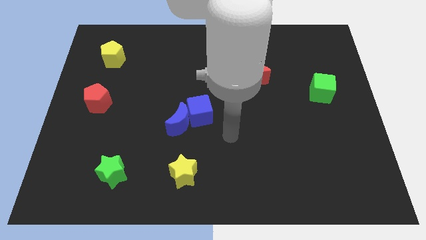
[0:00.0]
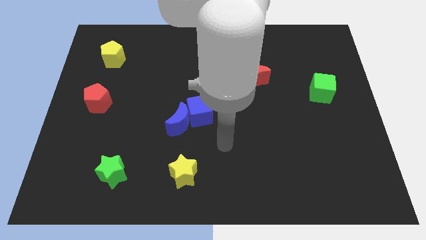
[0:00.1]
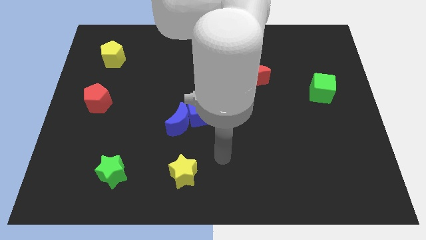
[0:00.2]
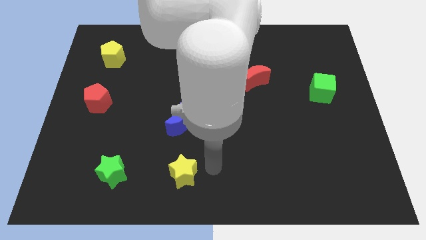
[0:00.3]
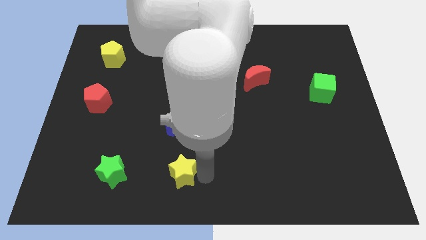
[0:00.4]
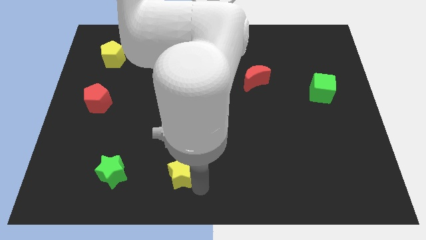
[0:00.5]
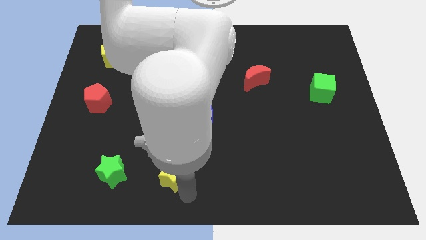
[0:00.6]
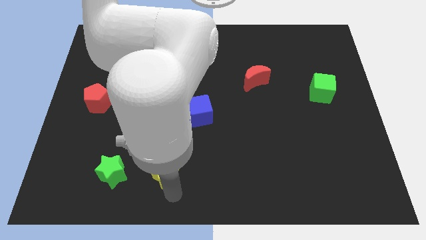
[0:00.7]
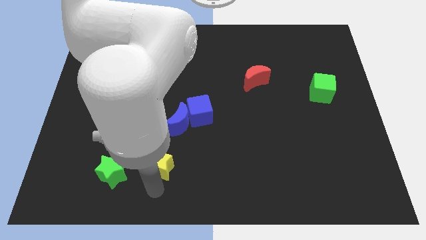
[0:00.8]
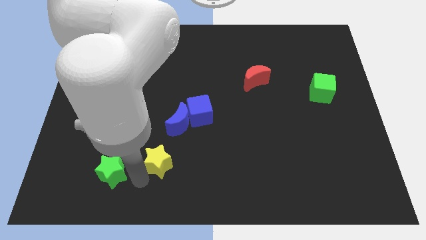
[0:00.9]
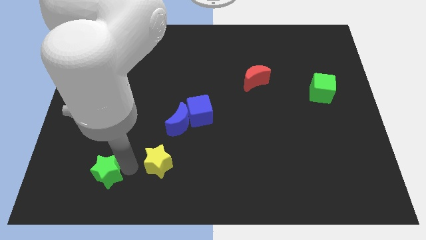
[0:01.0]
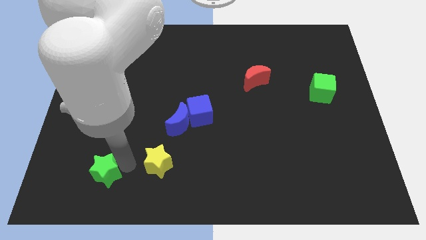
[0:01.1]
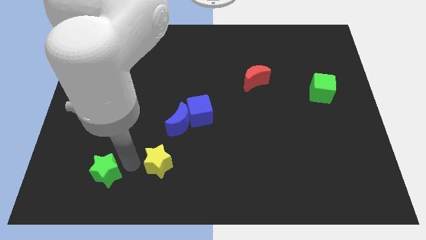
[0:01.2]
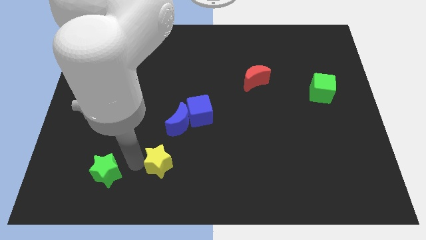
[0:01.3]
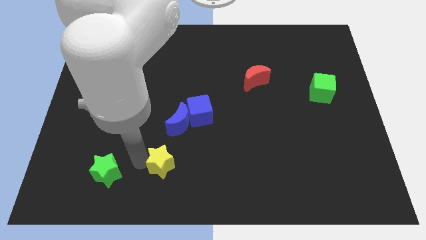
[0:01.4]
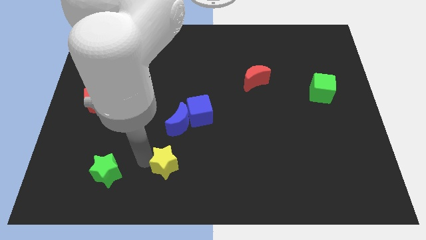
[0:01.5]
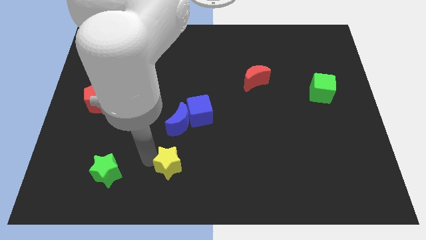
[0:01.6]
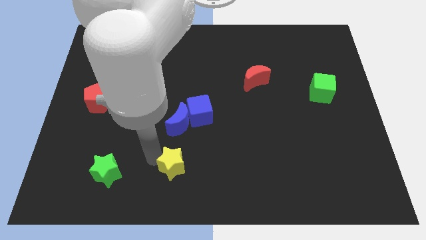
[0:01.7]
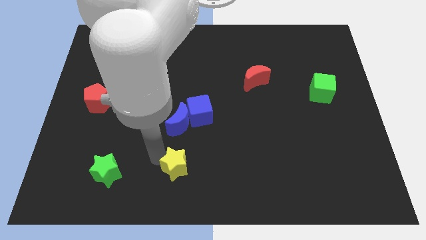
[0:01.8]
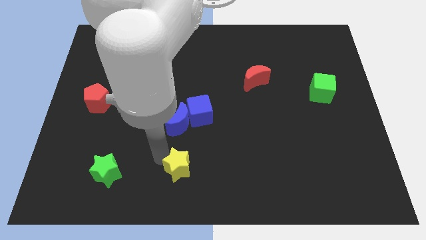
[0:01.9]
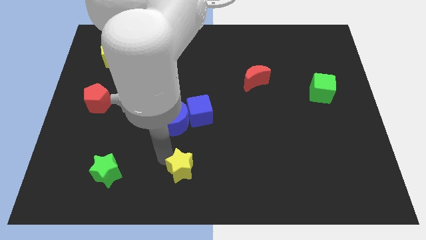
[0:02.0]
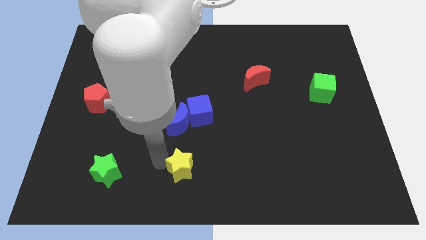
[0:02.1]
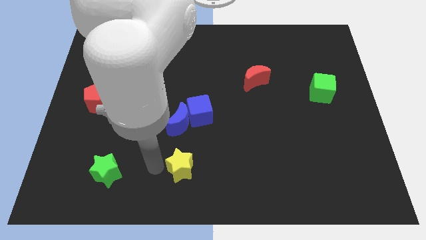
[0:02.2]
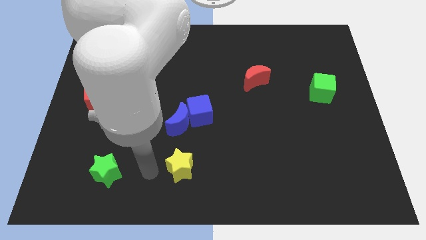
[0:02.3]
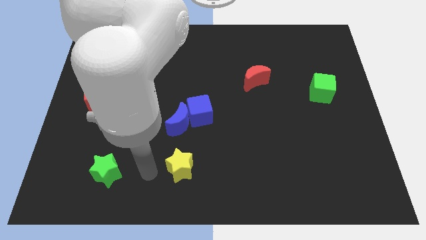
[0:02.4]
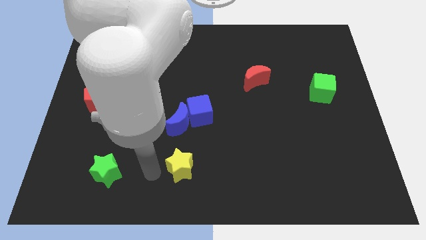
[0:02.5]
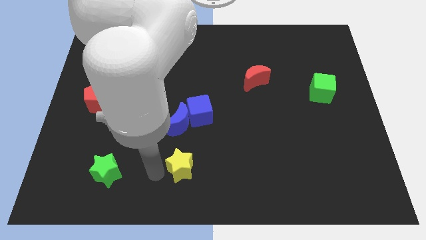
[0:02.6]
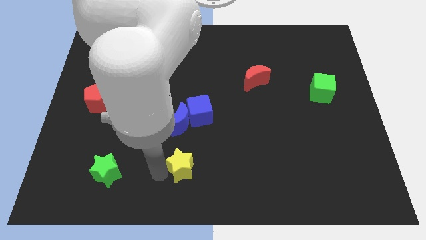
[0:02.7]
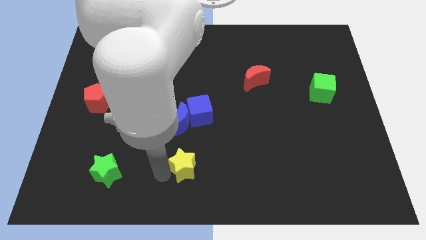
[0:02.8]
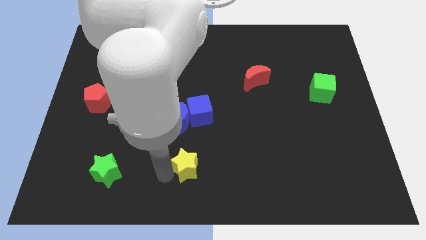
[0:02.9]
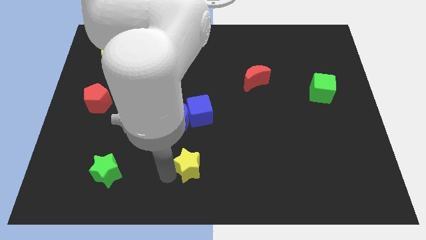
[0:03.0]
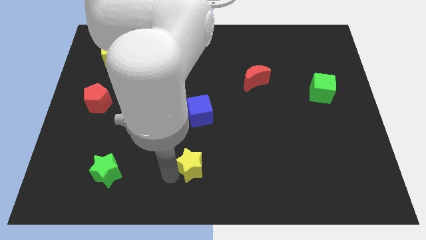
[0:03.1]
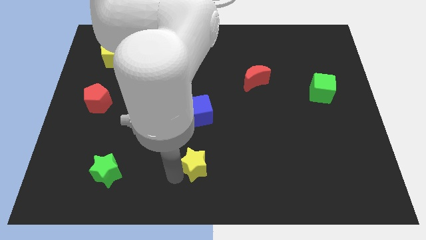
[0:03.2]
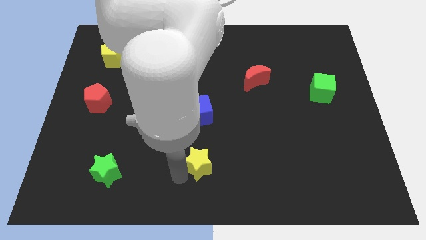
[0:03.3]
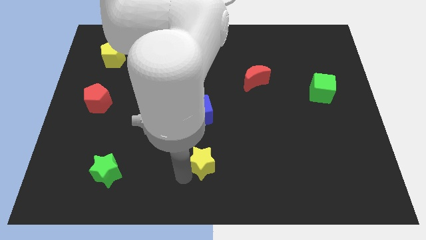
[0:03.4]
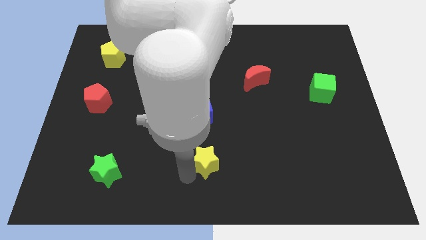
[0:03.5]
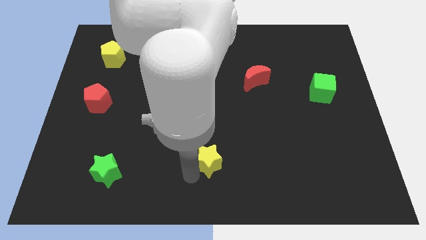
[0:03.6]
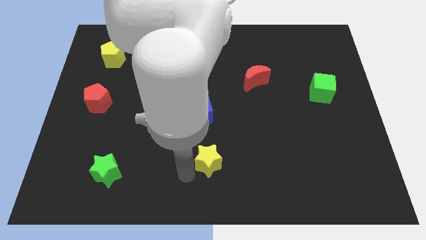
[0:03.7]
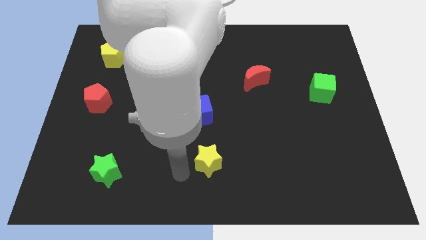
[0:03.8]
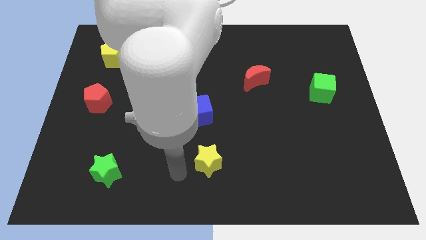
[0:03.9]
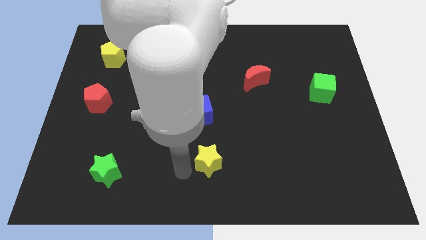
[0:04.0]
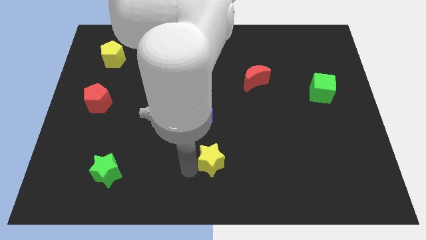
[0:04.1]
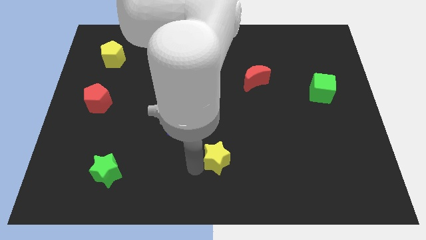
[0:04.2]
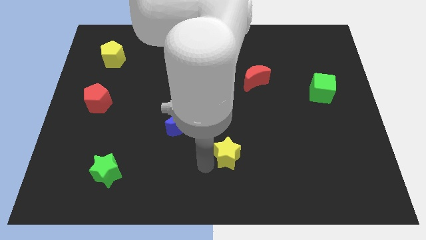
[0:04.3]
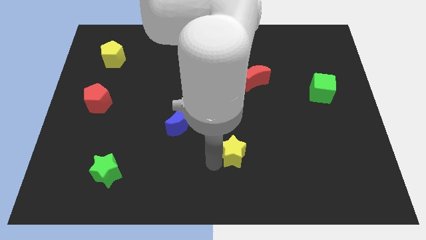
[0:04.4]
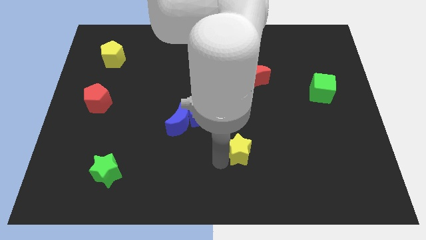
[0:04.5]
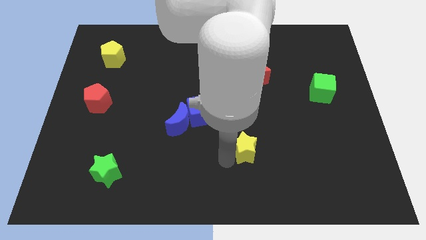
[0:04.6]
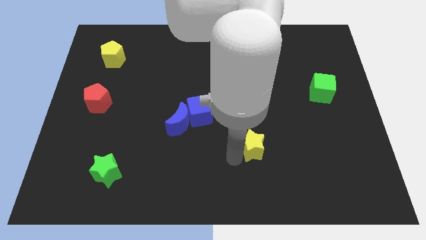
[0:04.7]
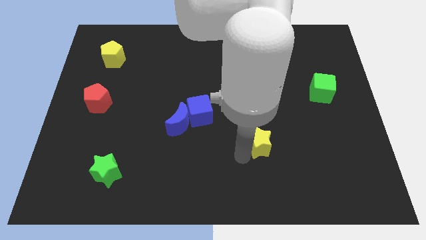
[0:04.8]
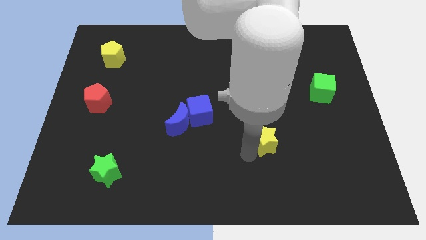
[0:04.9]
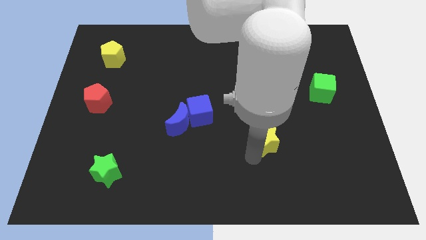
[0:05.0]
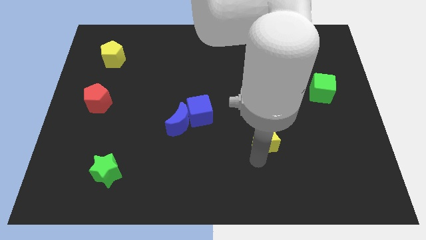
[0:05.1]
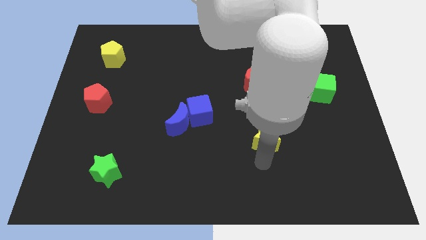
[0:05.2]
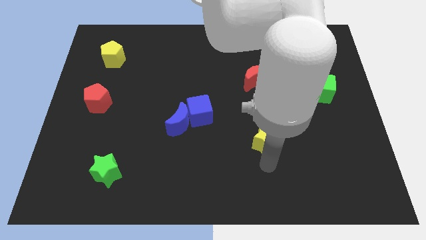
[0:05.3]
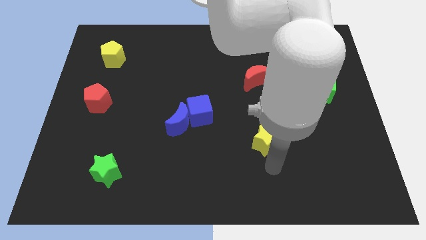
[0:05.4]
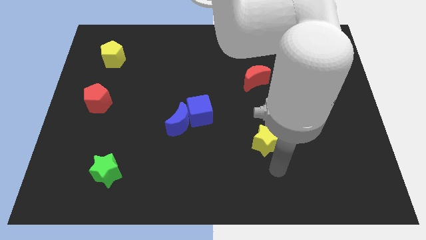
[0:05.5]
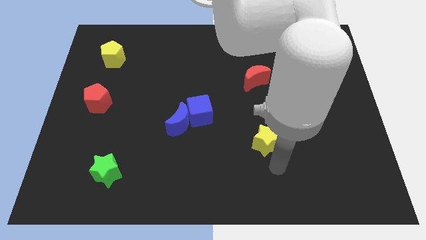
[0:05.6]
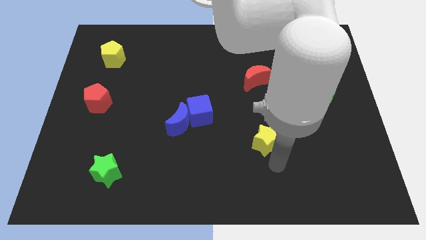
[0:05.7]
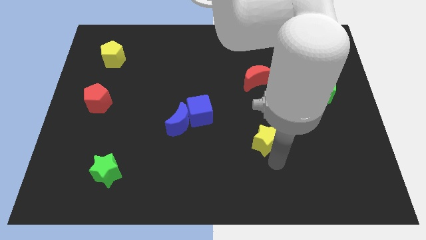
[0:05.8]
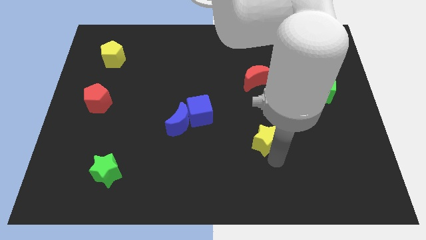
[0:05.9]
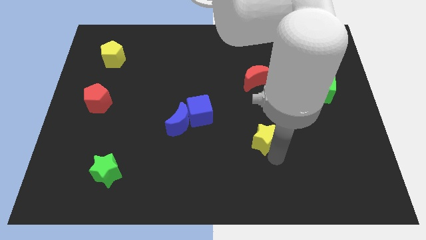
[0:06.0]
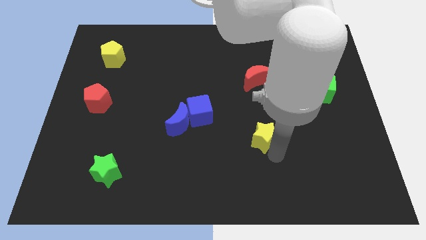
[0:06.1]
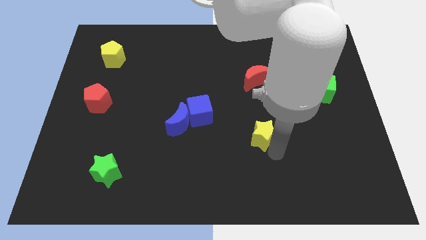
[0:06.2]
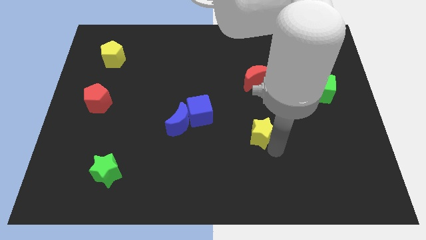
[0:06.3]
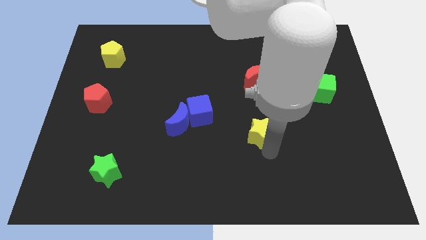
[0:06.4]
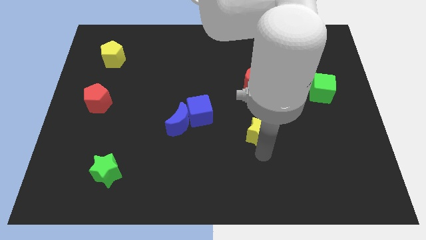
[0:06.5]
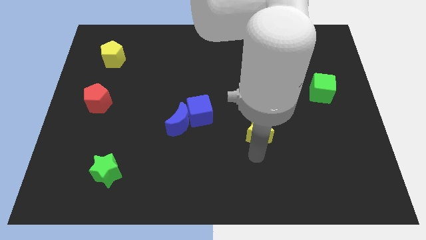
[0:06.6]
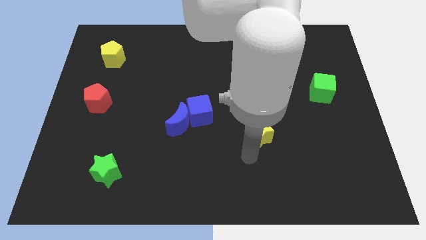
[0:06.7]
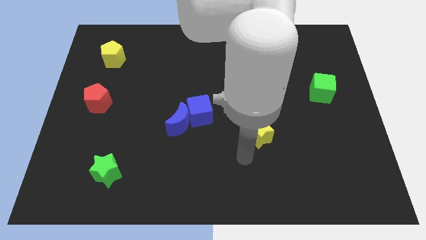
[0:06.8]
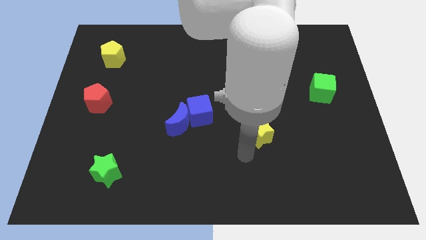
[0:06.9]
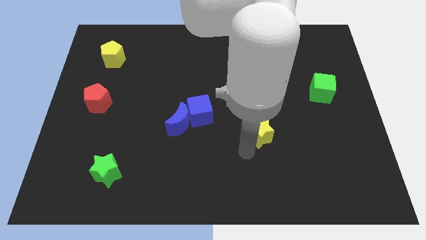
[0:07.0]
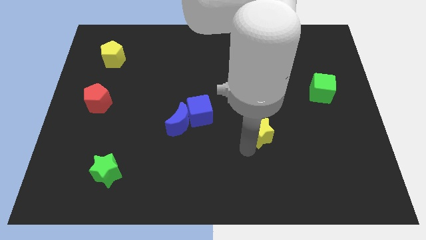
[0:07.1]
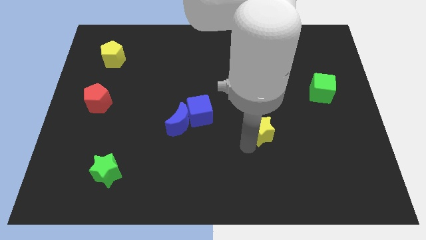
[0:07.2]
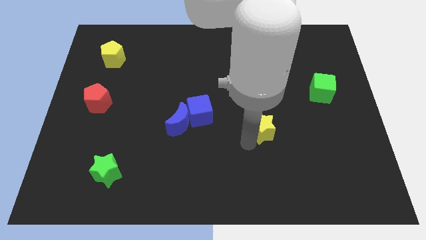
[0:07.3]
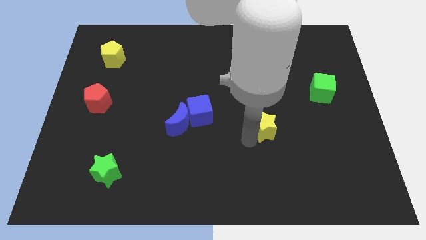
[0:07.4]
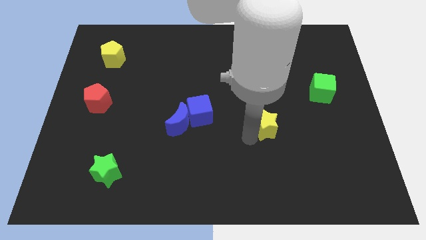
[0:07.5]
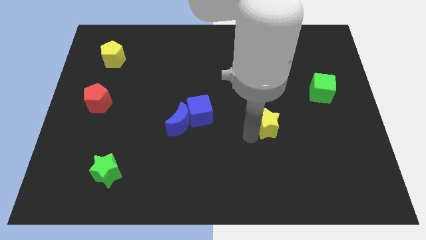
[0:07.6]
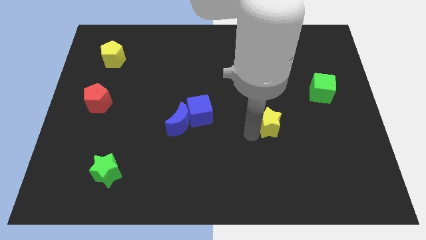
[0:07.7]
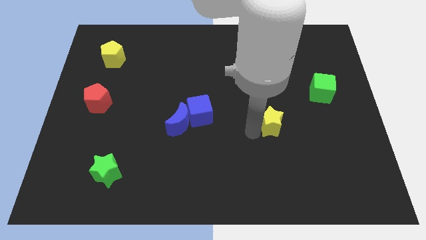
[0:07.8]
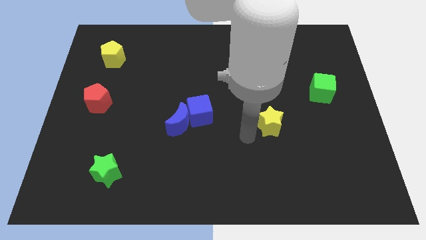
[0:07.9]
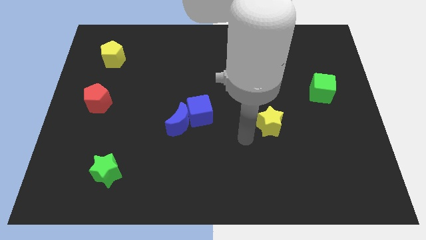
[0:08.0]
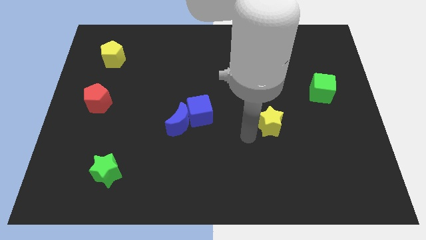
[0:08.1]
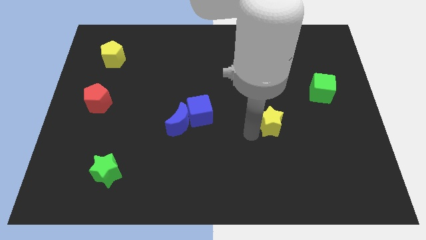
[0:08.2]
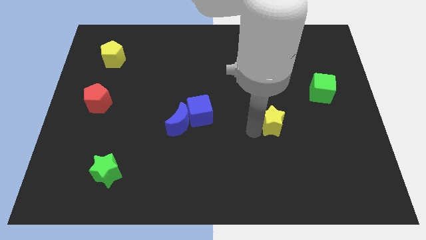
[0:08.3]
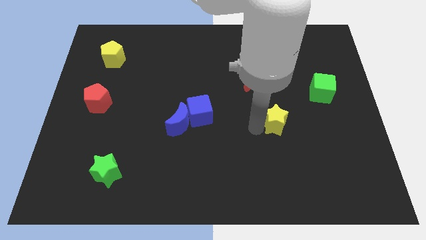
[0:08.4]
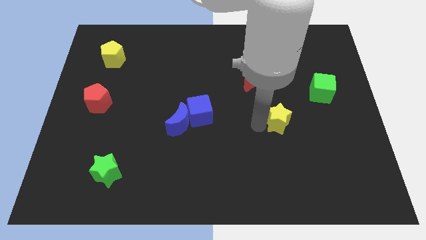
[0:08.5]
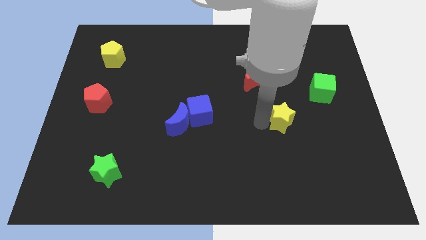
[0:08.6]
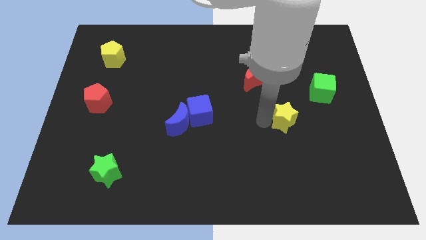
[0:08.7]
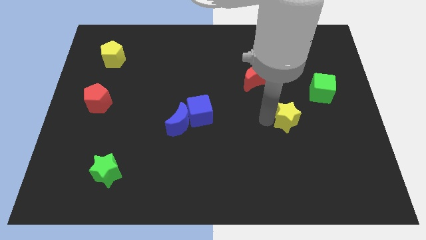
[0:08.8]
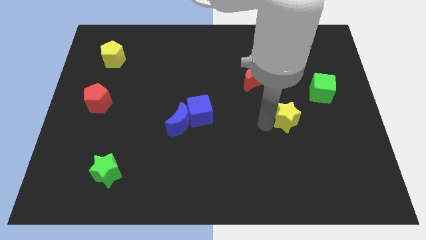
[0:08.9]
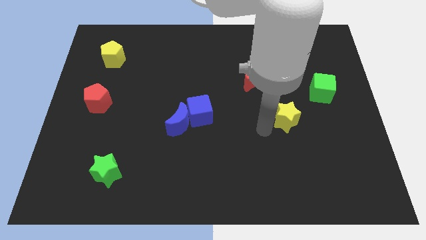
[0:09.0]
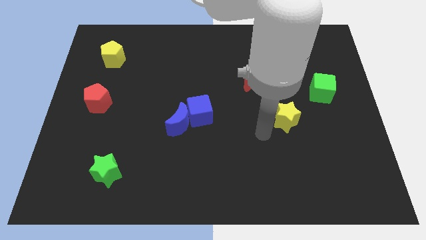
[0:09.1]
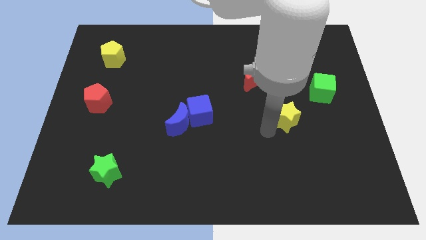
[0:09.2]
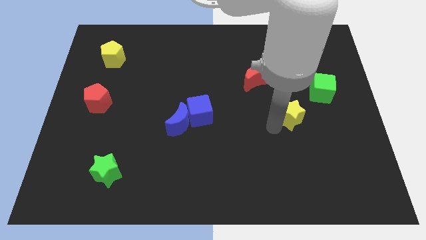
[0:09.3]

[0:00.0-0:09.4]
slide the yellow star to the bottom left side of the green cube
